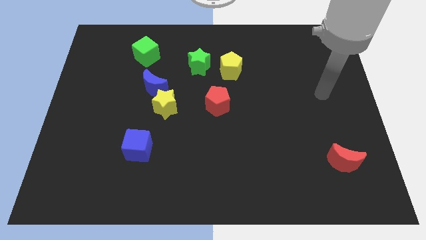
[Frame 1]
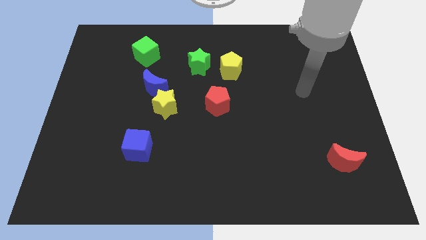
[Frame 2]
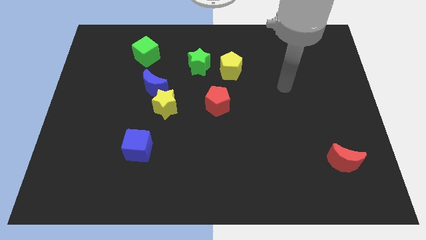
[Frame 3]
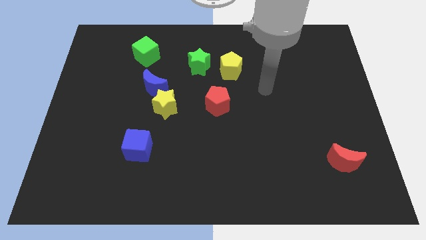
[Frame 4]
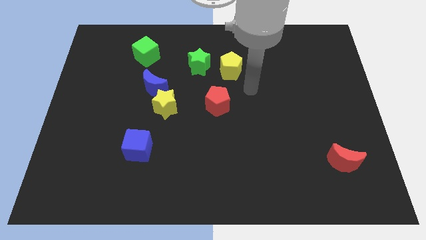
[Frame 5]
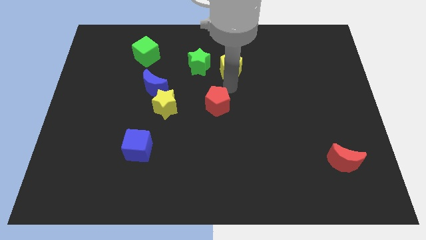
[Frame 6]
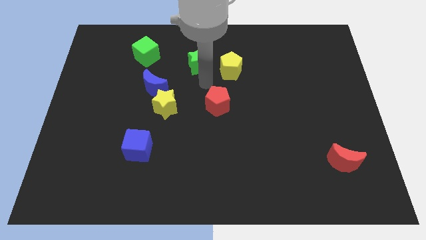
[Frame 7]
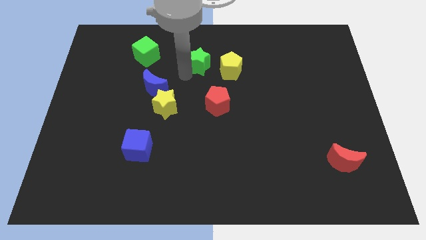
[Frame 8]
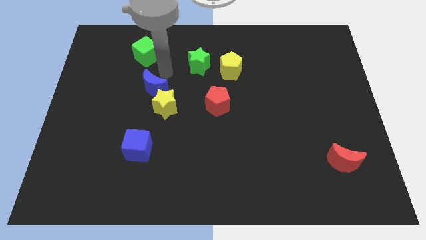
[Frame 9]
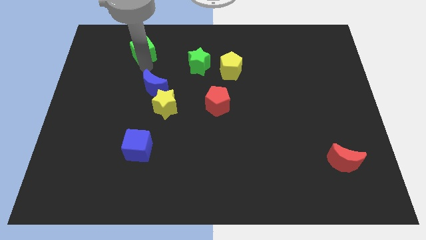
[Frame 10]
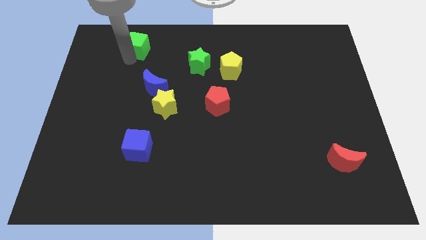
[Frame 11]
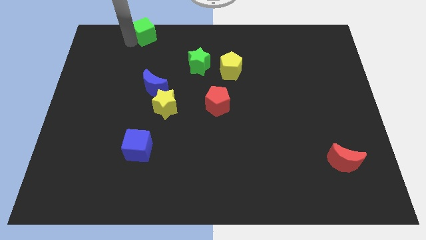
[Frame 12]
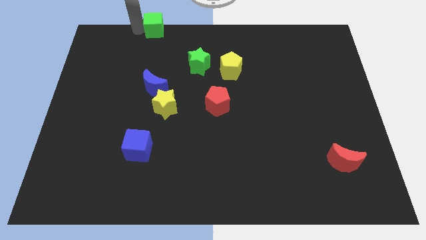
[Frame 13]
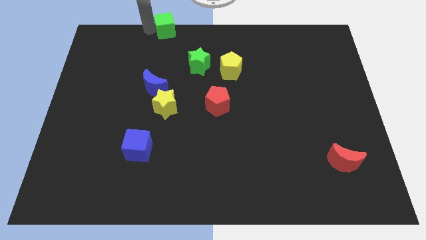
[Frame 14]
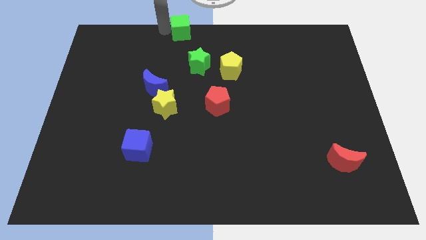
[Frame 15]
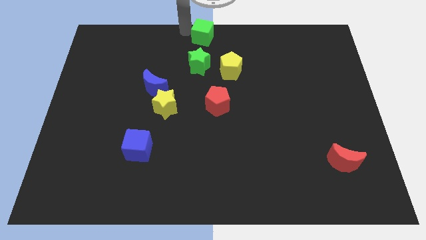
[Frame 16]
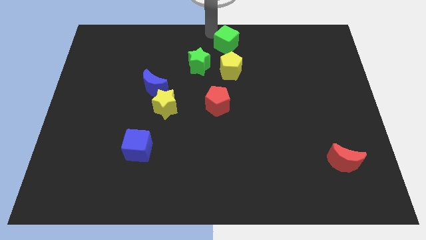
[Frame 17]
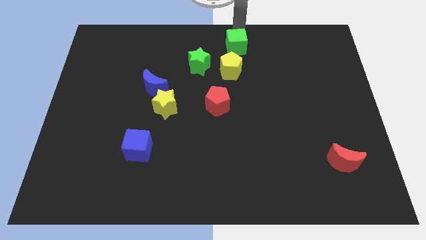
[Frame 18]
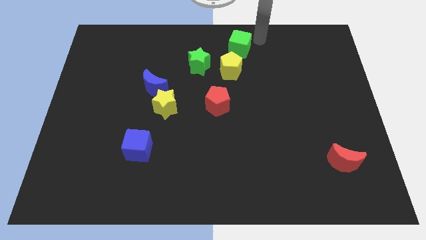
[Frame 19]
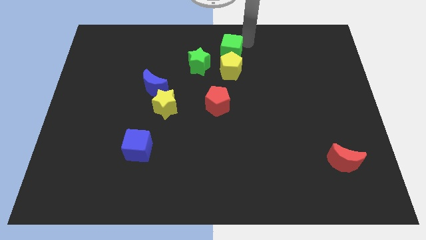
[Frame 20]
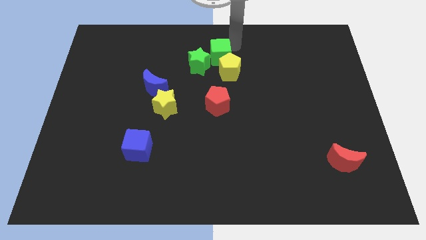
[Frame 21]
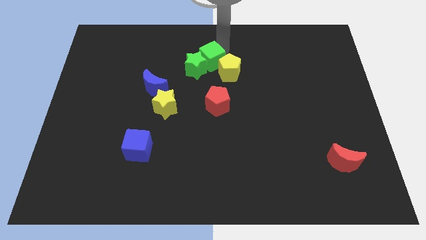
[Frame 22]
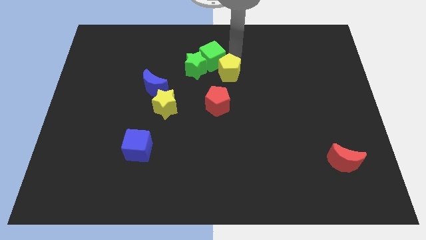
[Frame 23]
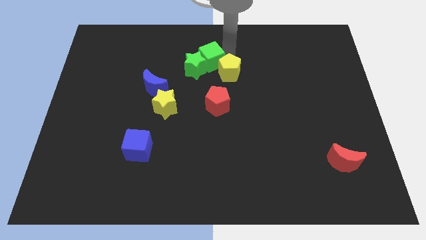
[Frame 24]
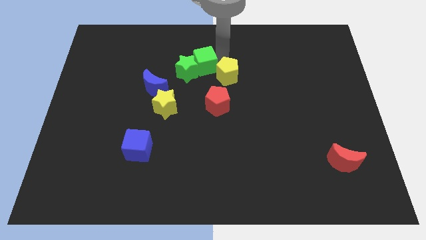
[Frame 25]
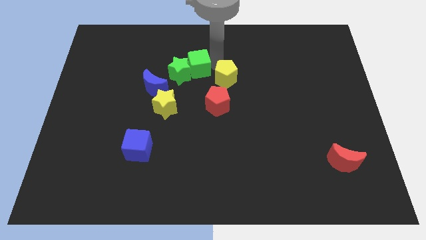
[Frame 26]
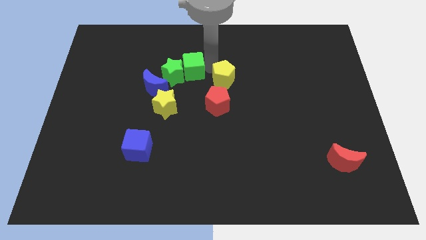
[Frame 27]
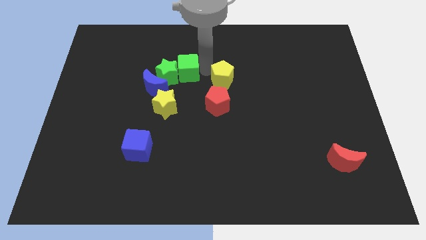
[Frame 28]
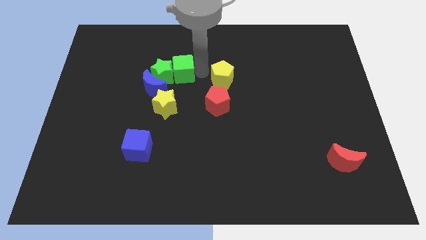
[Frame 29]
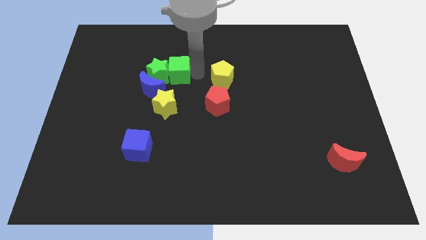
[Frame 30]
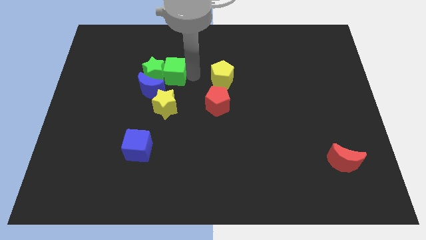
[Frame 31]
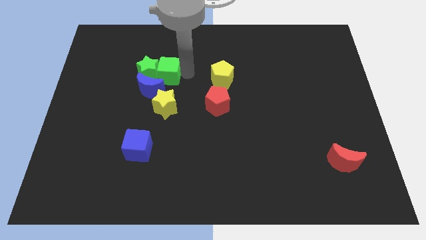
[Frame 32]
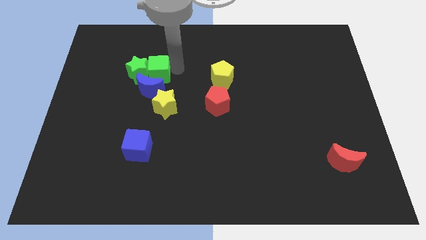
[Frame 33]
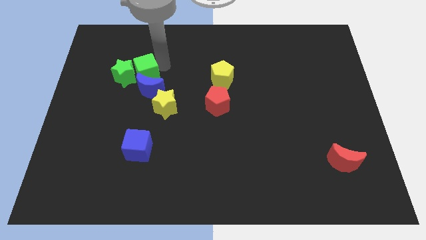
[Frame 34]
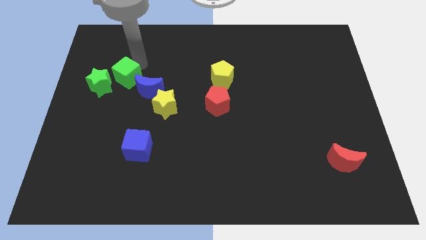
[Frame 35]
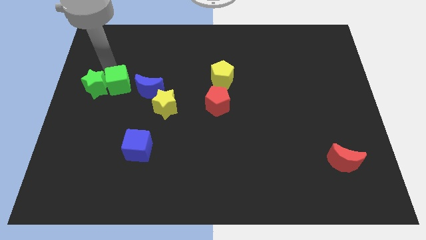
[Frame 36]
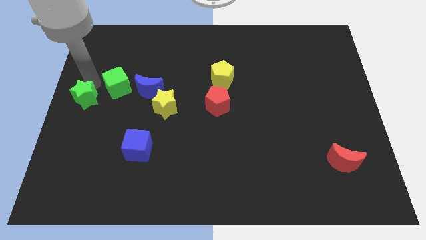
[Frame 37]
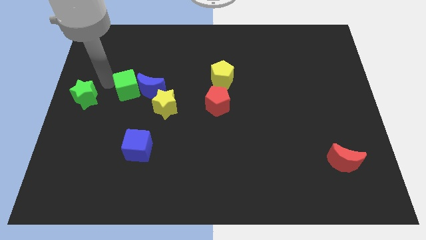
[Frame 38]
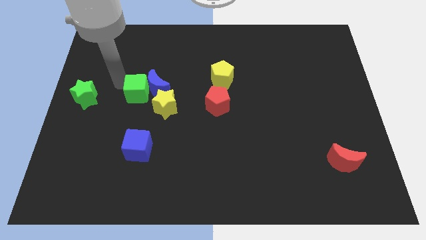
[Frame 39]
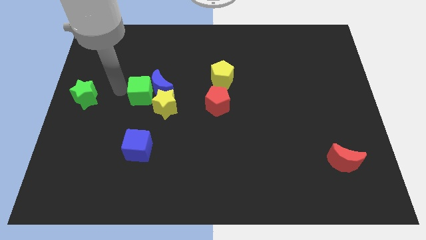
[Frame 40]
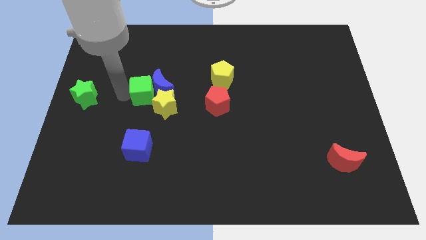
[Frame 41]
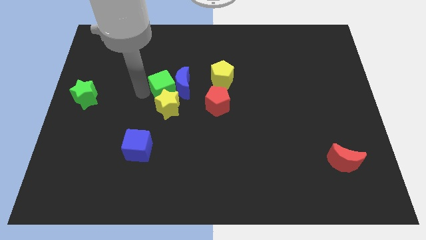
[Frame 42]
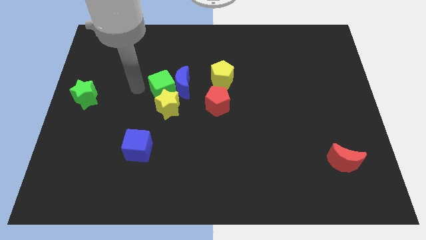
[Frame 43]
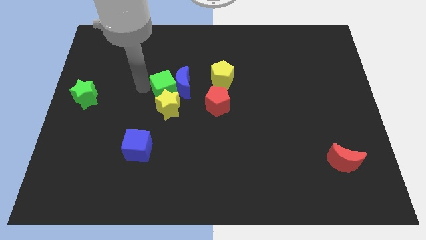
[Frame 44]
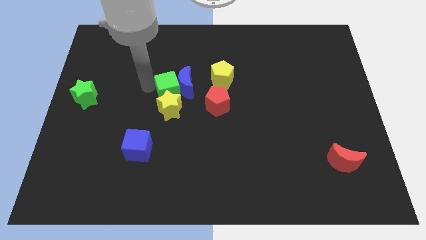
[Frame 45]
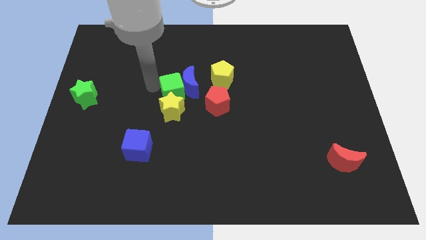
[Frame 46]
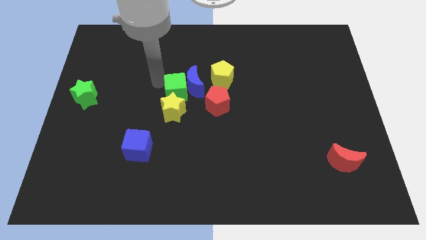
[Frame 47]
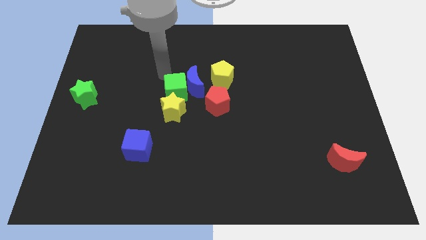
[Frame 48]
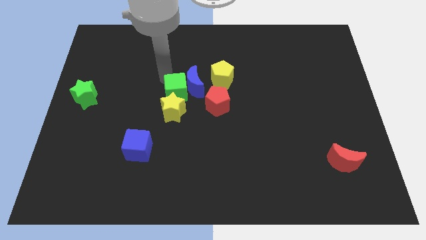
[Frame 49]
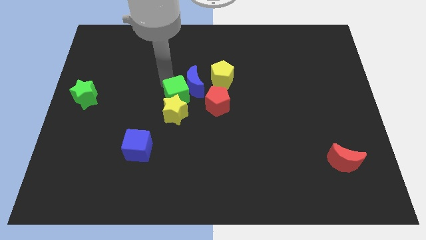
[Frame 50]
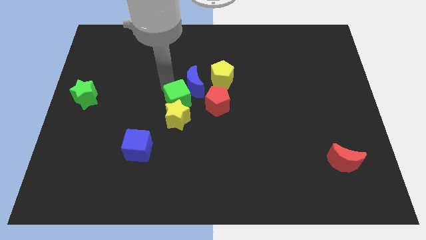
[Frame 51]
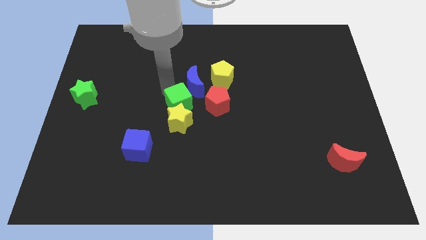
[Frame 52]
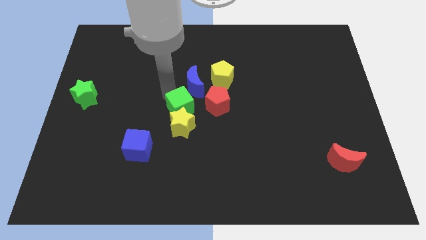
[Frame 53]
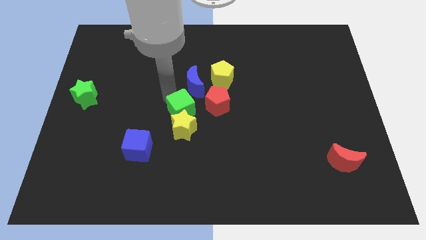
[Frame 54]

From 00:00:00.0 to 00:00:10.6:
push the green cube diagonally down and to the left of the red pentagon

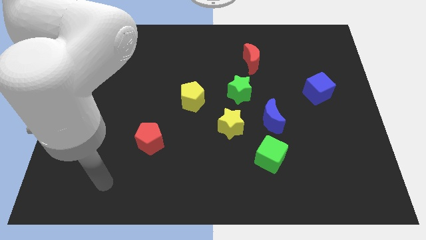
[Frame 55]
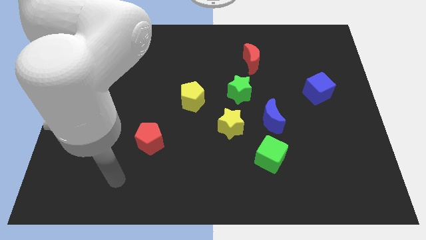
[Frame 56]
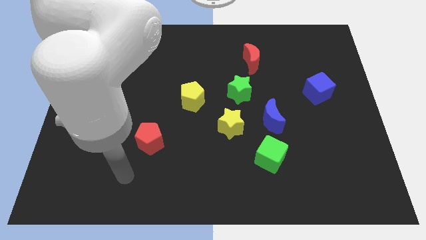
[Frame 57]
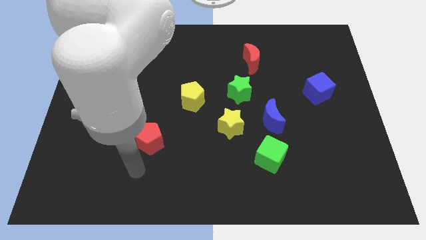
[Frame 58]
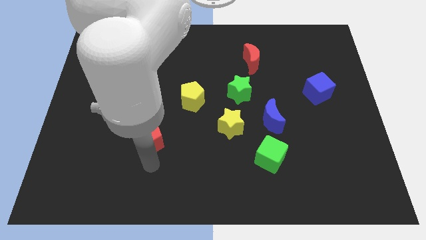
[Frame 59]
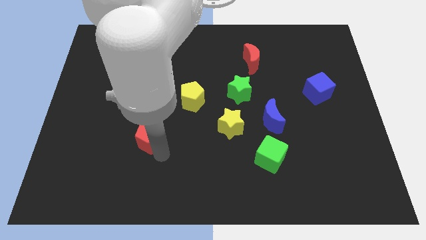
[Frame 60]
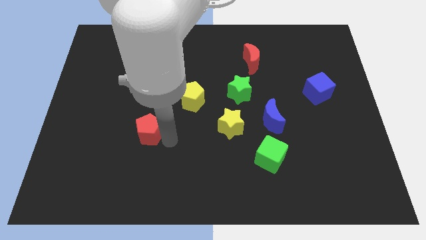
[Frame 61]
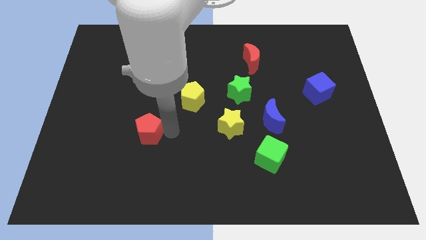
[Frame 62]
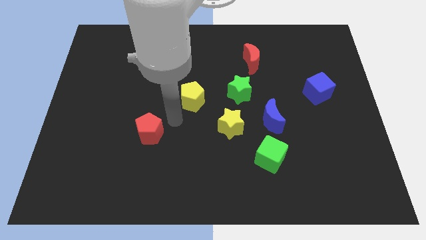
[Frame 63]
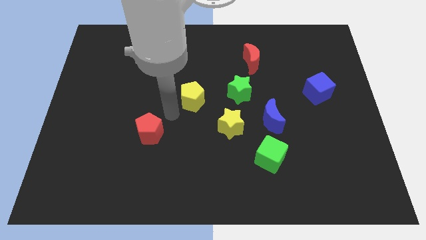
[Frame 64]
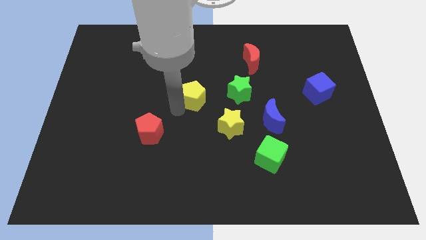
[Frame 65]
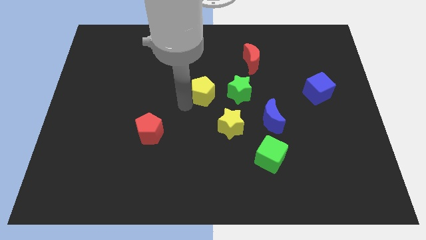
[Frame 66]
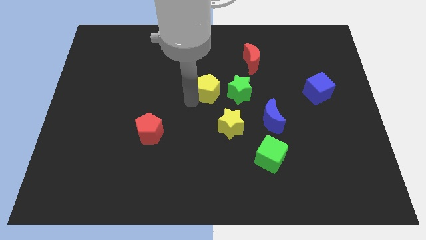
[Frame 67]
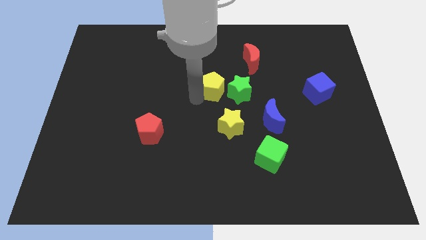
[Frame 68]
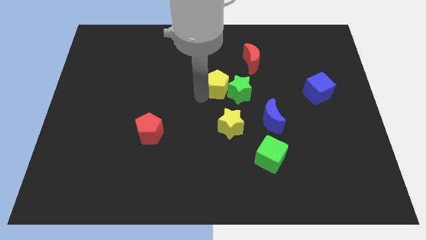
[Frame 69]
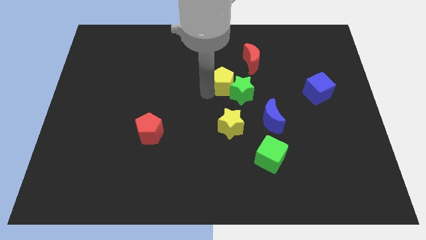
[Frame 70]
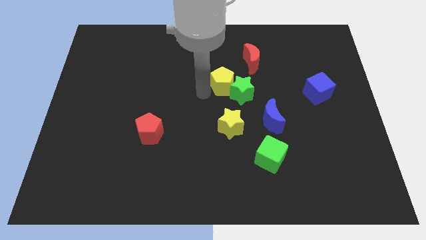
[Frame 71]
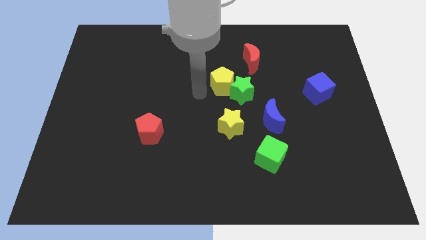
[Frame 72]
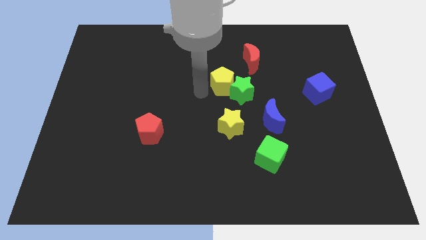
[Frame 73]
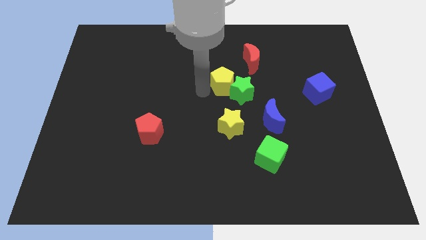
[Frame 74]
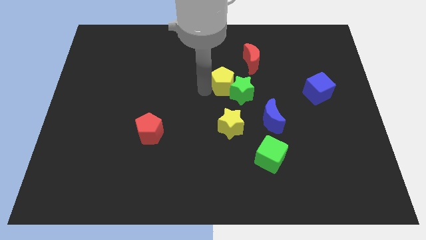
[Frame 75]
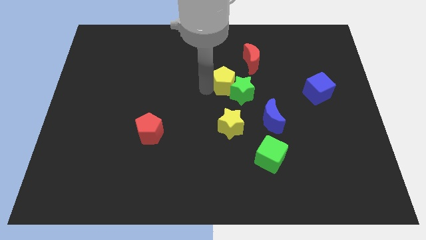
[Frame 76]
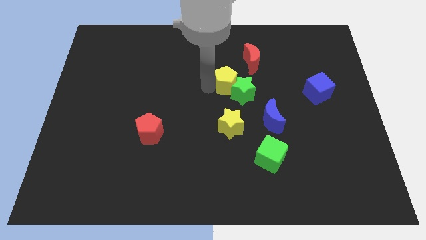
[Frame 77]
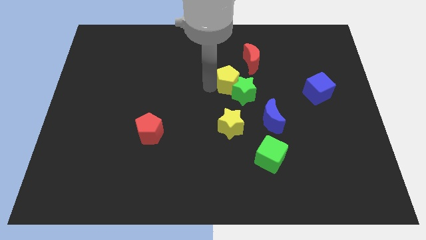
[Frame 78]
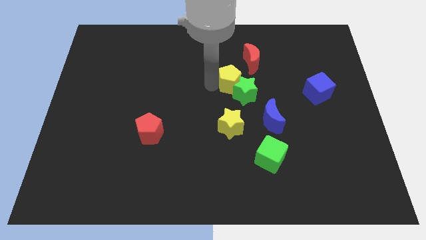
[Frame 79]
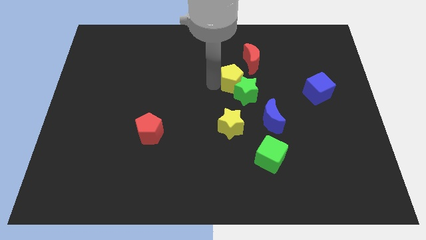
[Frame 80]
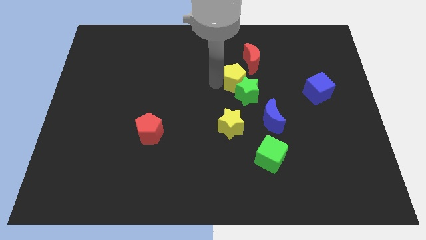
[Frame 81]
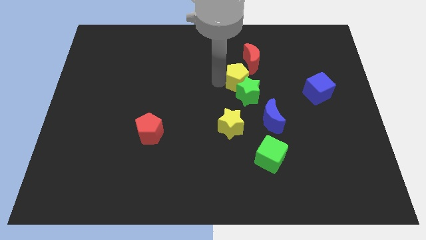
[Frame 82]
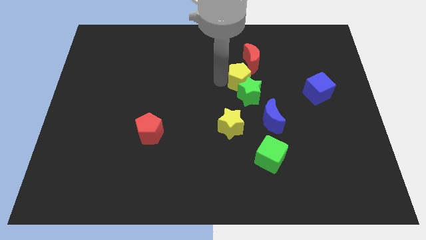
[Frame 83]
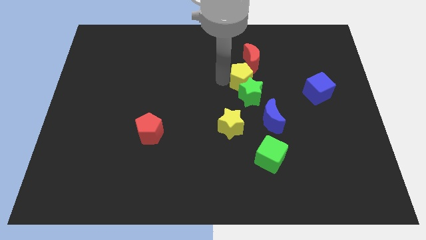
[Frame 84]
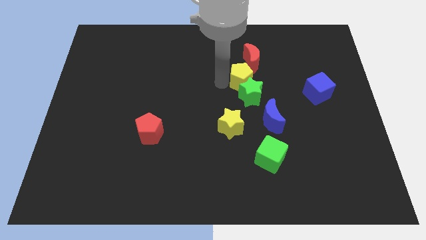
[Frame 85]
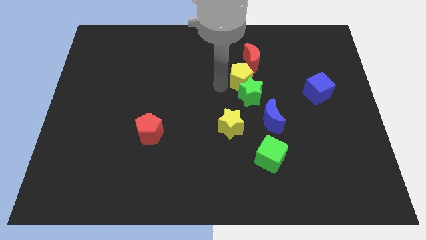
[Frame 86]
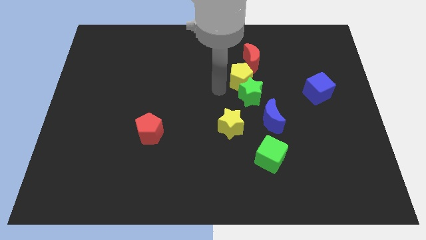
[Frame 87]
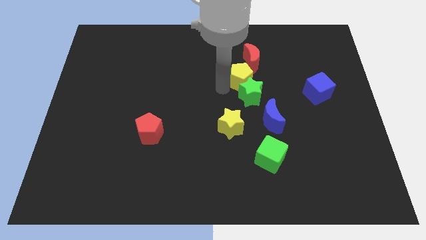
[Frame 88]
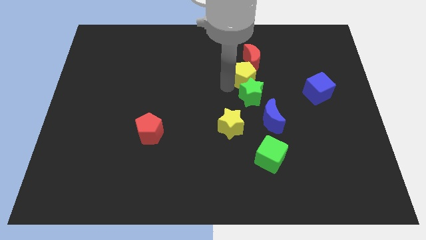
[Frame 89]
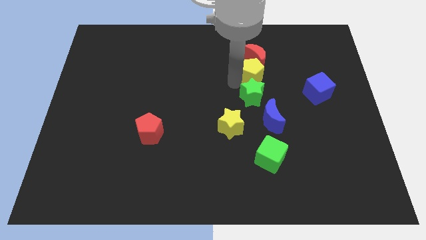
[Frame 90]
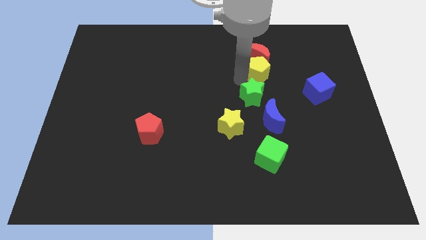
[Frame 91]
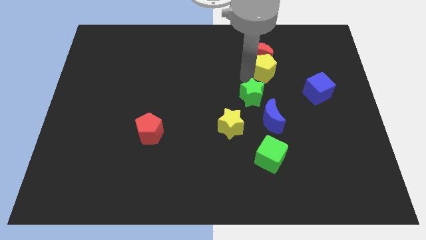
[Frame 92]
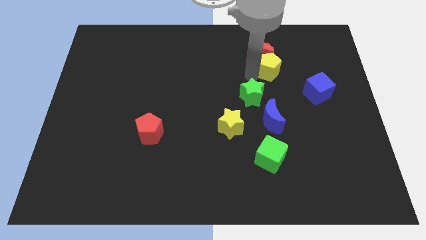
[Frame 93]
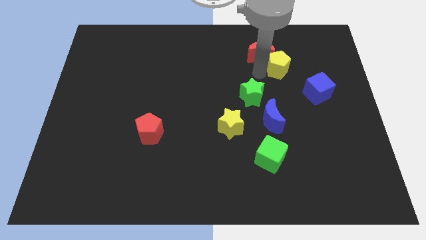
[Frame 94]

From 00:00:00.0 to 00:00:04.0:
put the yellow pentagon right of the red moon
